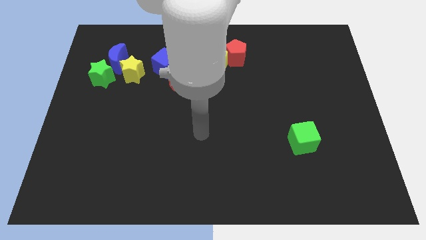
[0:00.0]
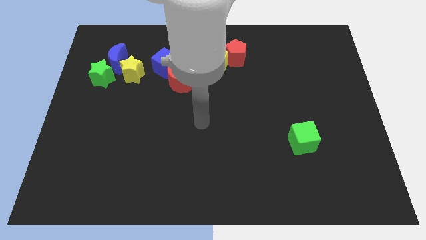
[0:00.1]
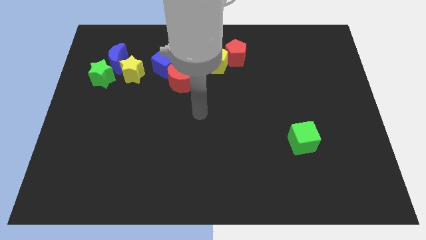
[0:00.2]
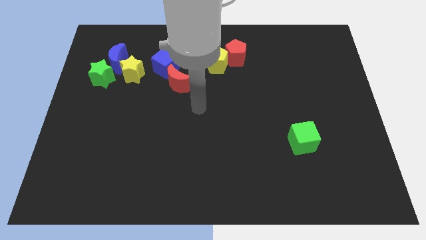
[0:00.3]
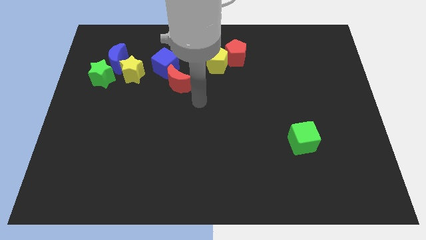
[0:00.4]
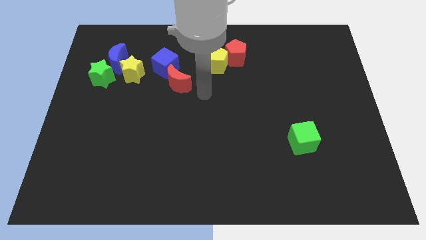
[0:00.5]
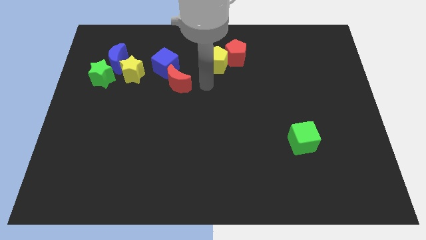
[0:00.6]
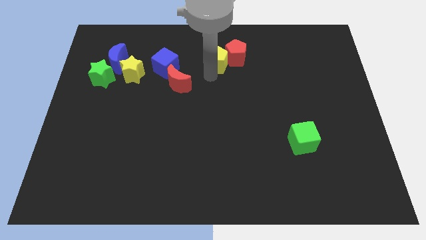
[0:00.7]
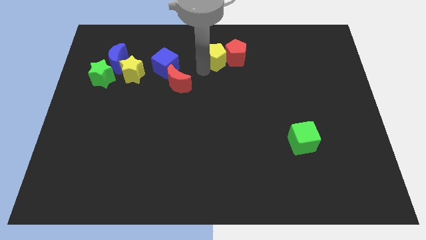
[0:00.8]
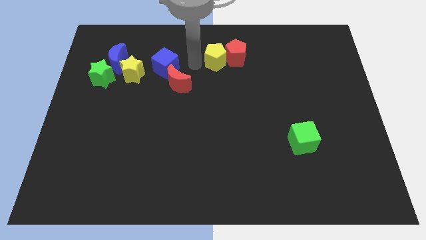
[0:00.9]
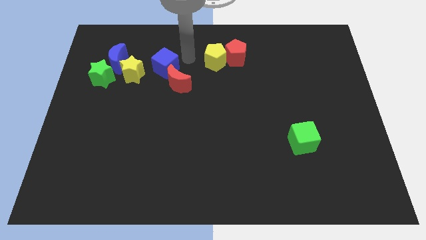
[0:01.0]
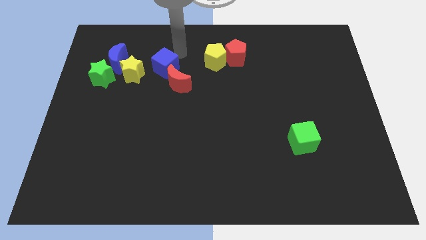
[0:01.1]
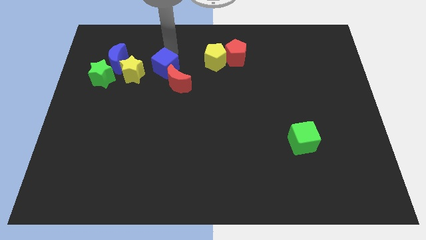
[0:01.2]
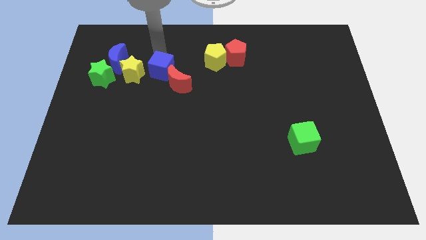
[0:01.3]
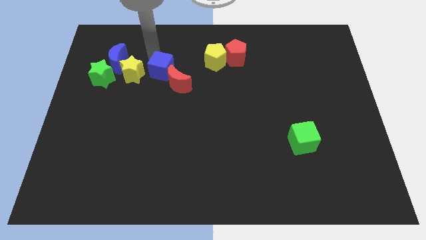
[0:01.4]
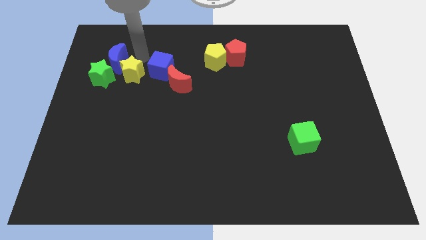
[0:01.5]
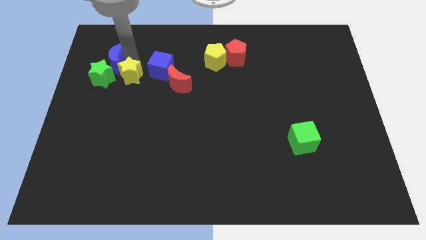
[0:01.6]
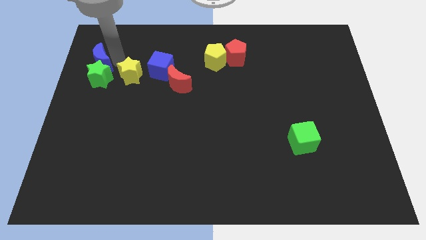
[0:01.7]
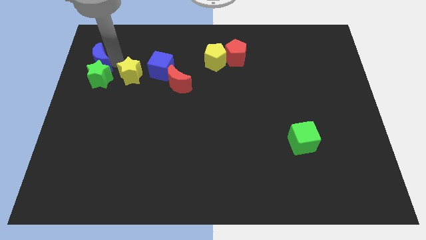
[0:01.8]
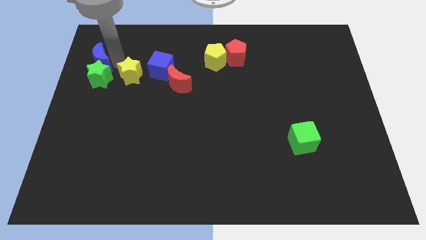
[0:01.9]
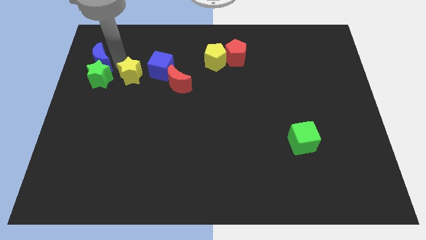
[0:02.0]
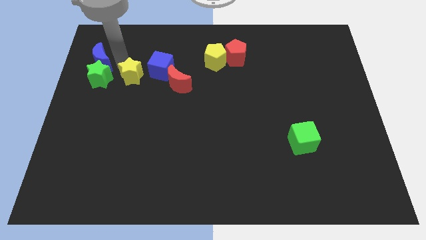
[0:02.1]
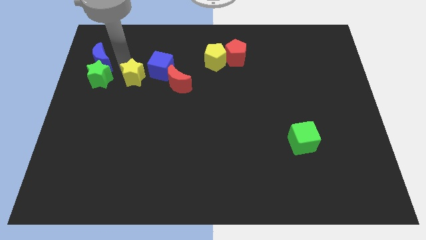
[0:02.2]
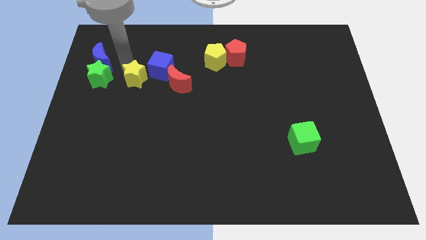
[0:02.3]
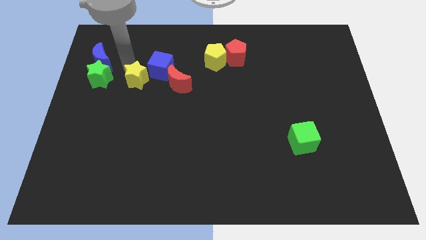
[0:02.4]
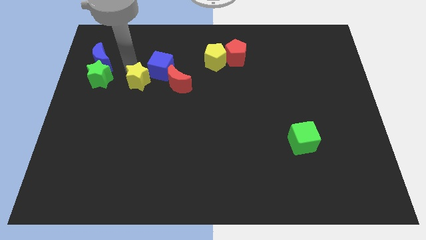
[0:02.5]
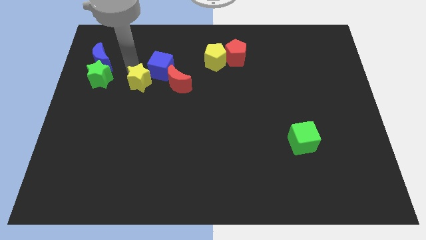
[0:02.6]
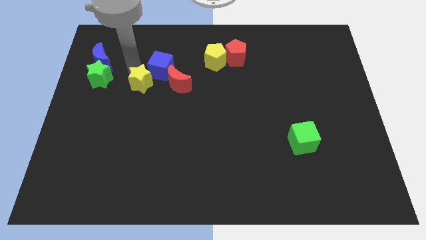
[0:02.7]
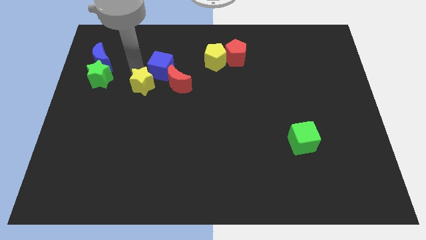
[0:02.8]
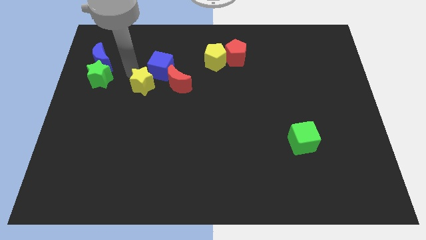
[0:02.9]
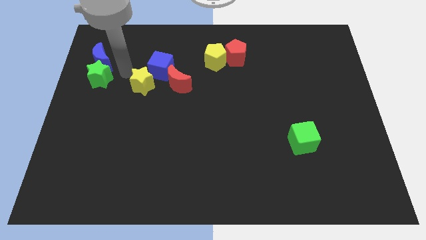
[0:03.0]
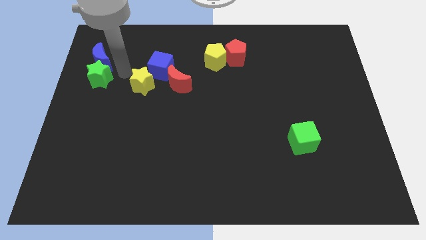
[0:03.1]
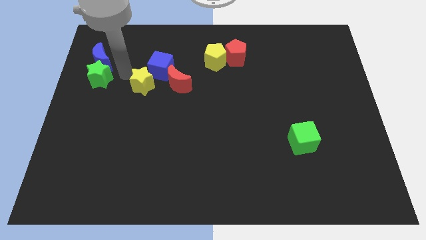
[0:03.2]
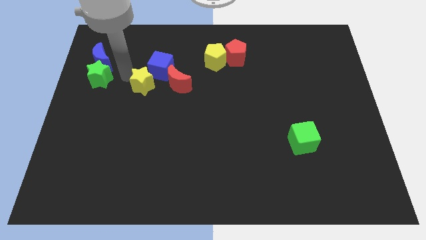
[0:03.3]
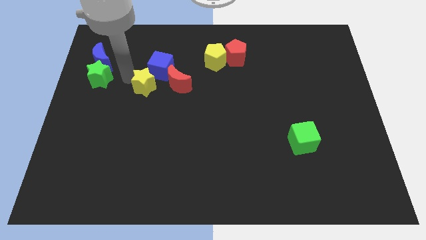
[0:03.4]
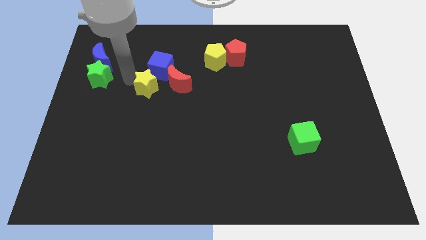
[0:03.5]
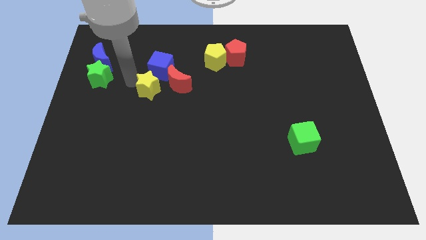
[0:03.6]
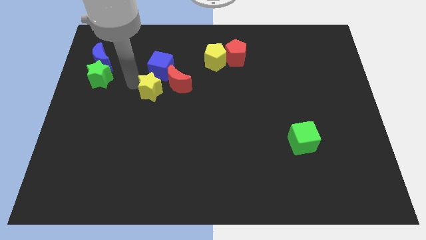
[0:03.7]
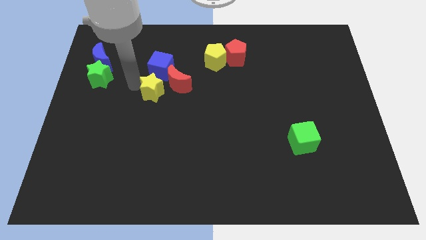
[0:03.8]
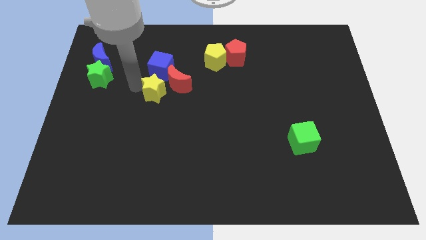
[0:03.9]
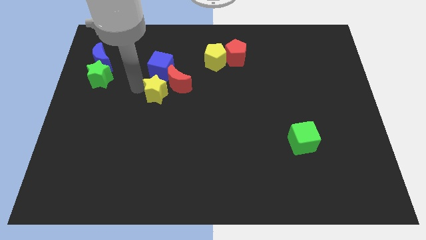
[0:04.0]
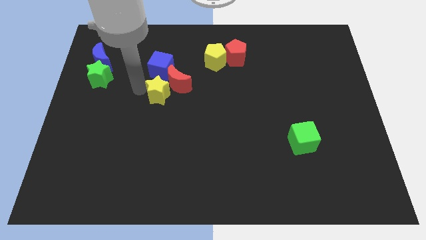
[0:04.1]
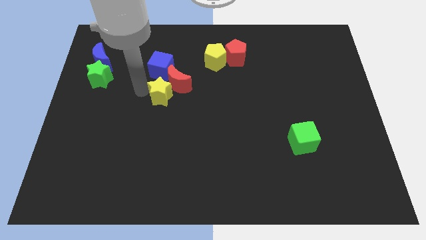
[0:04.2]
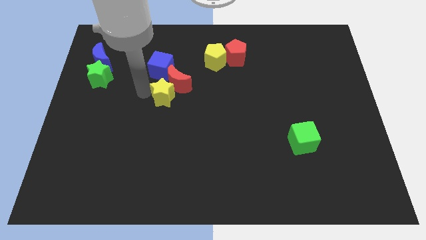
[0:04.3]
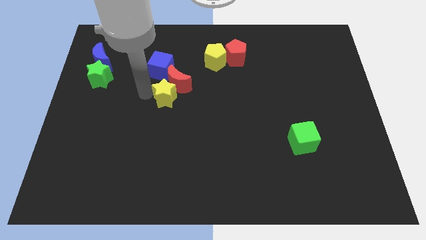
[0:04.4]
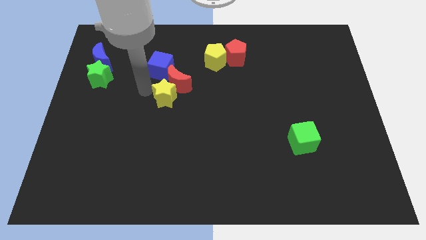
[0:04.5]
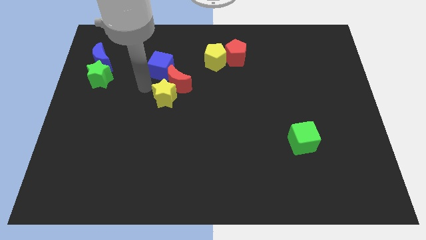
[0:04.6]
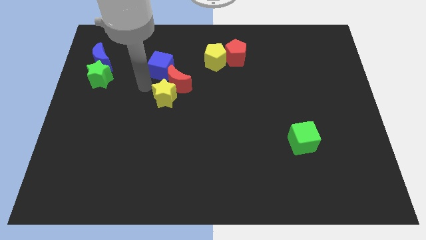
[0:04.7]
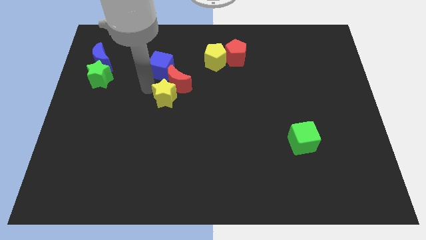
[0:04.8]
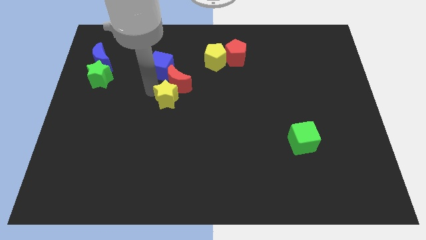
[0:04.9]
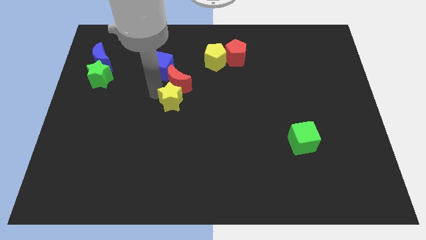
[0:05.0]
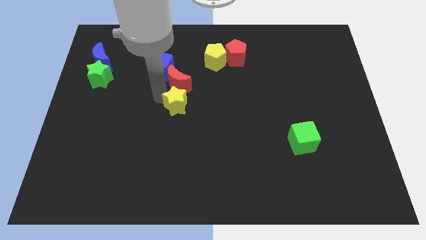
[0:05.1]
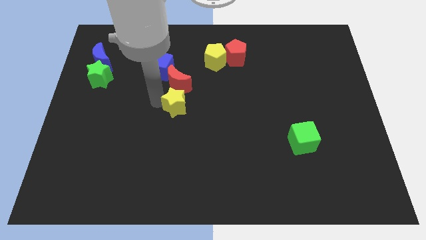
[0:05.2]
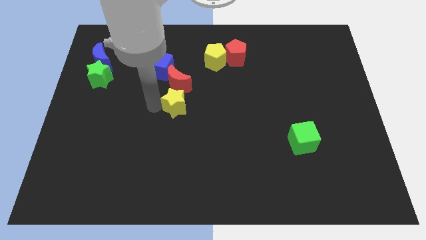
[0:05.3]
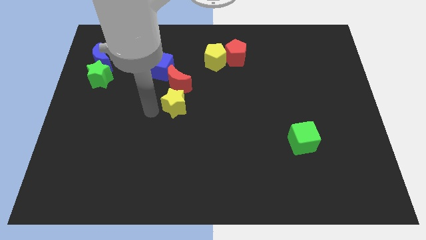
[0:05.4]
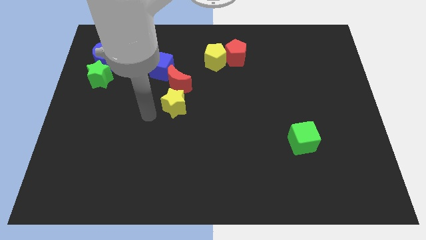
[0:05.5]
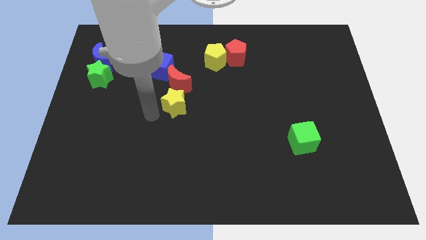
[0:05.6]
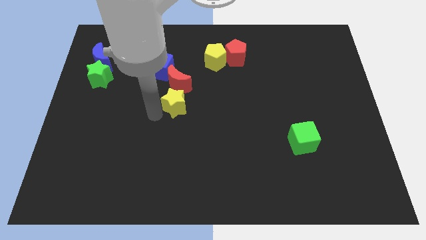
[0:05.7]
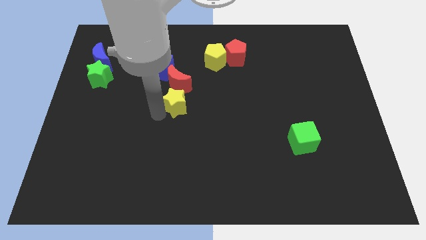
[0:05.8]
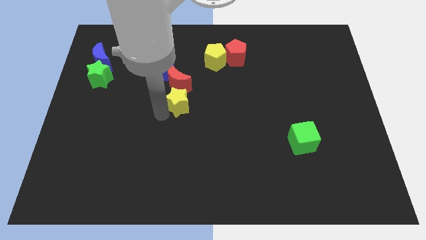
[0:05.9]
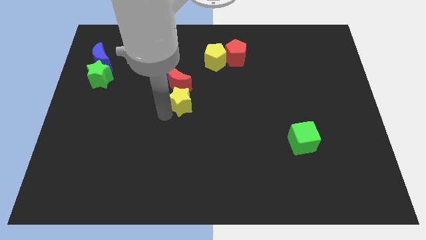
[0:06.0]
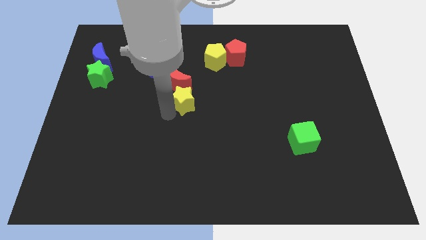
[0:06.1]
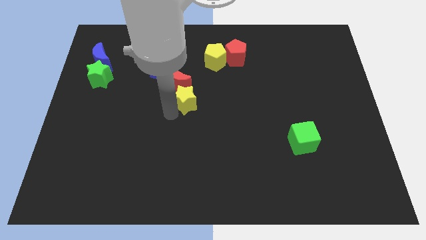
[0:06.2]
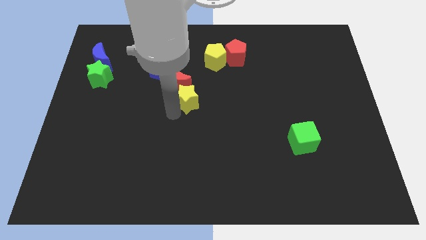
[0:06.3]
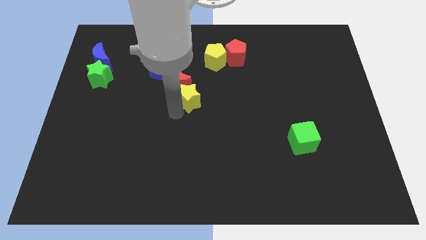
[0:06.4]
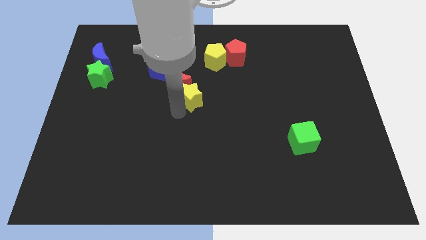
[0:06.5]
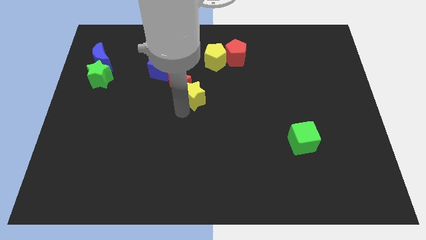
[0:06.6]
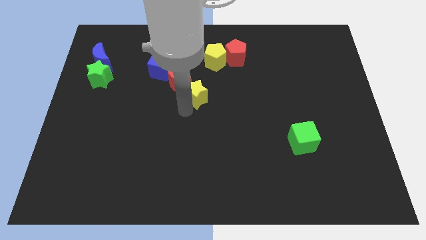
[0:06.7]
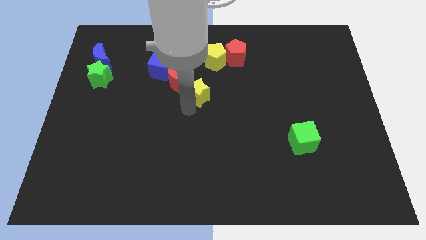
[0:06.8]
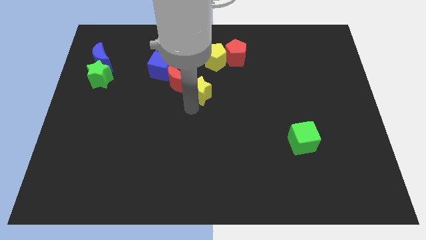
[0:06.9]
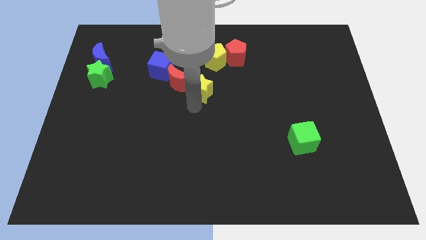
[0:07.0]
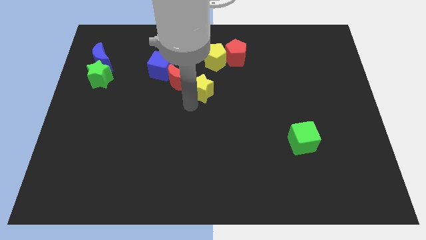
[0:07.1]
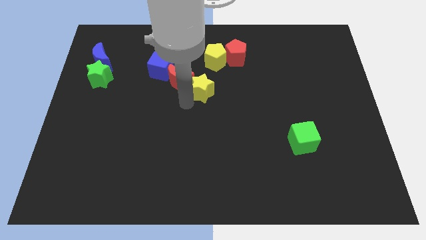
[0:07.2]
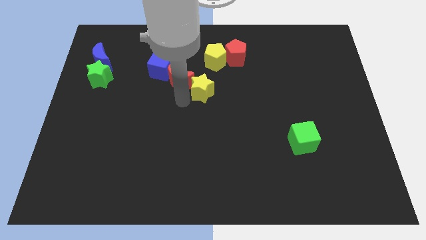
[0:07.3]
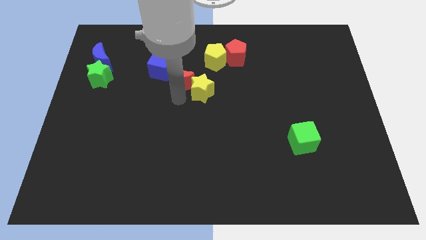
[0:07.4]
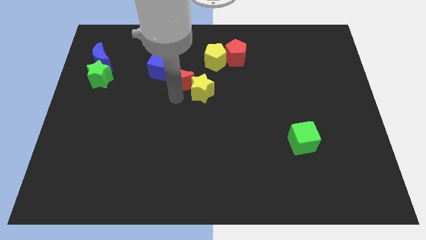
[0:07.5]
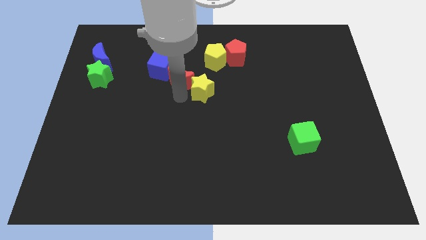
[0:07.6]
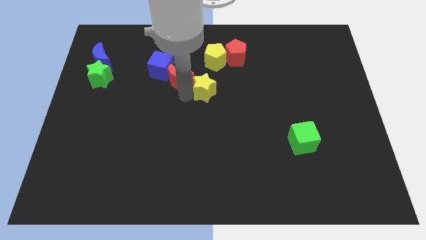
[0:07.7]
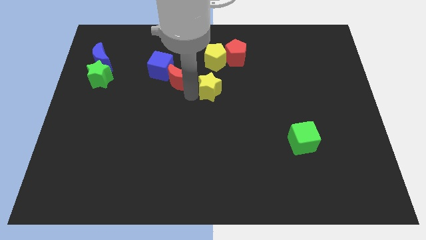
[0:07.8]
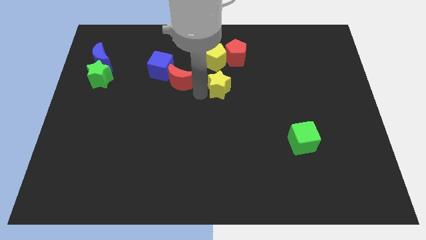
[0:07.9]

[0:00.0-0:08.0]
move the yellow star to the right

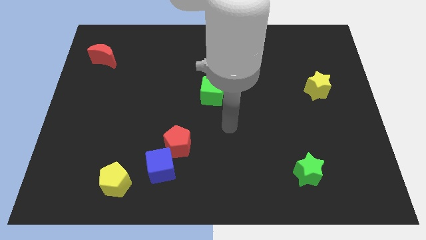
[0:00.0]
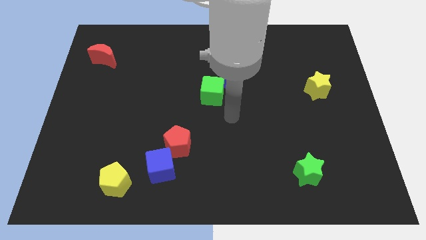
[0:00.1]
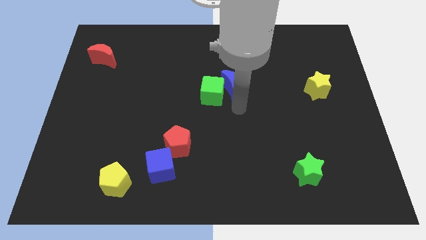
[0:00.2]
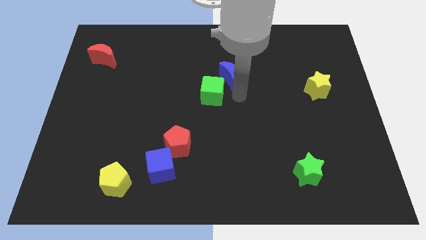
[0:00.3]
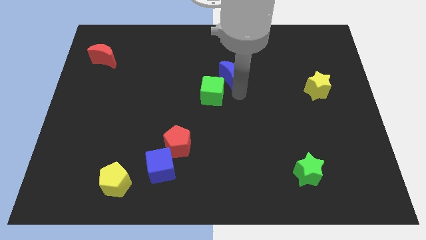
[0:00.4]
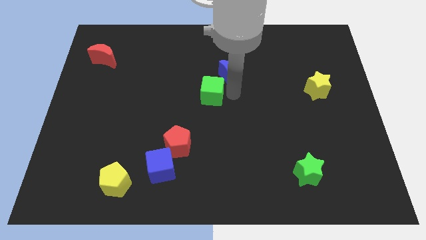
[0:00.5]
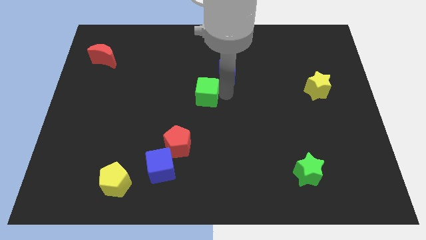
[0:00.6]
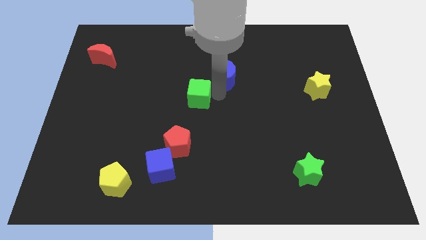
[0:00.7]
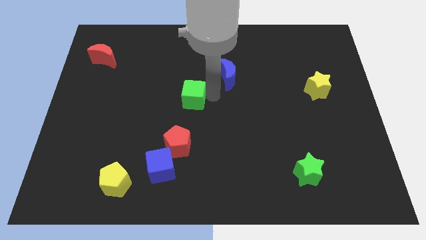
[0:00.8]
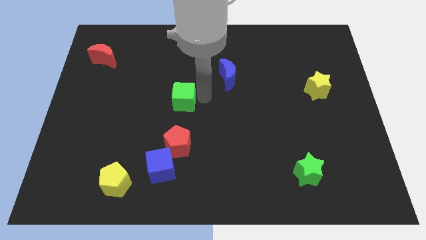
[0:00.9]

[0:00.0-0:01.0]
push the green cube left a little bit
